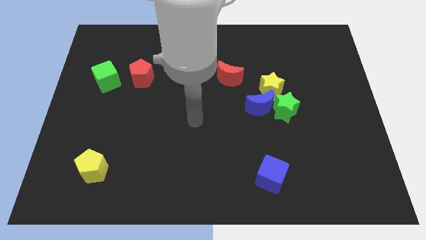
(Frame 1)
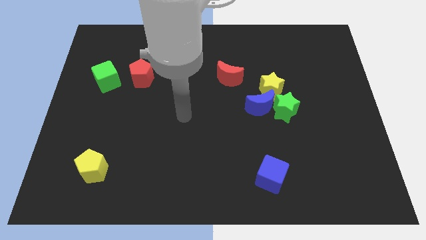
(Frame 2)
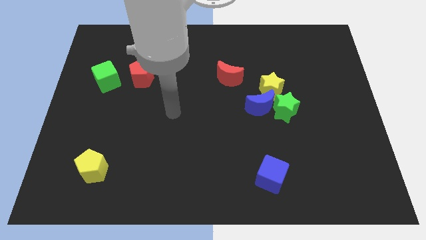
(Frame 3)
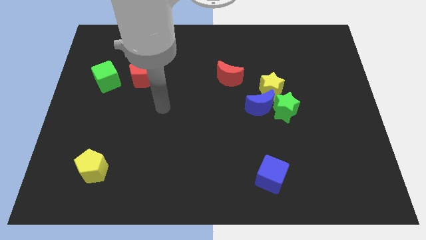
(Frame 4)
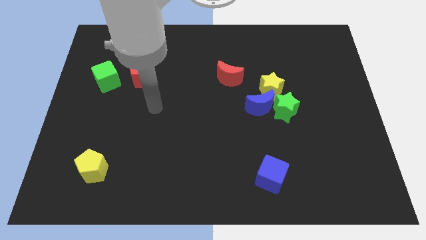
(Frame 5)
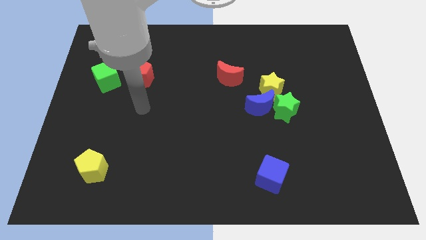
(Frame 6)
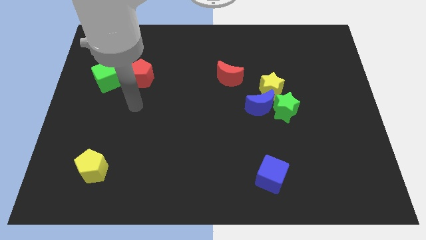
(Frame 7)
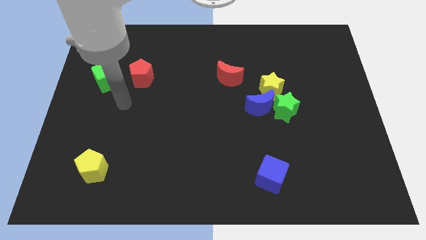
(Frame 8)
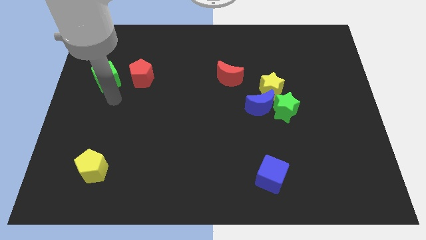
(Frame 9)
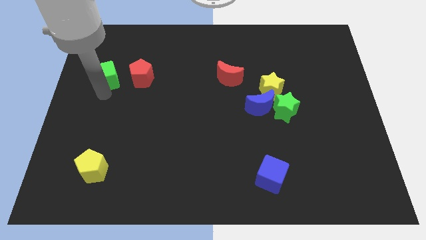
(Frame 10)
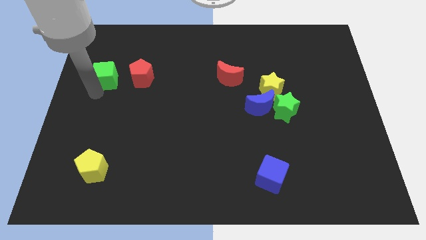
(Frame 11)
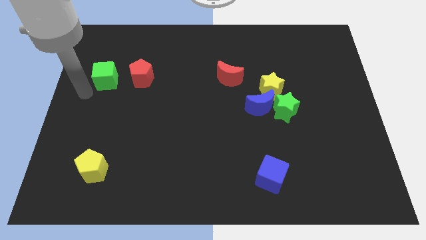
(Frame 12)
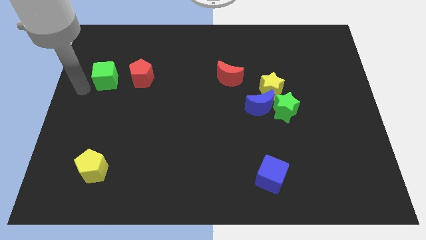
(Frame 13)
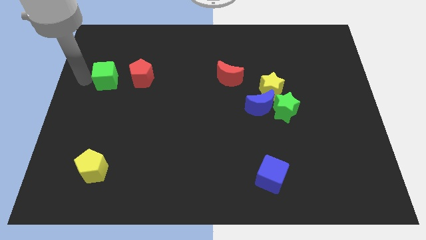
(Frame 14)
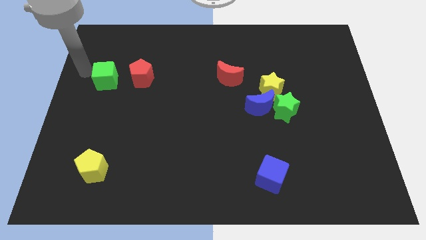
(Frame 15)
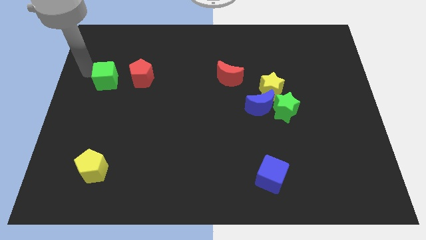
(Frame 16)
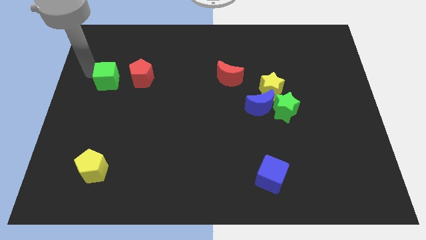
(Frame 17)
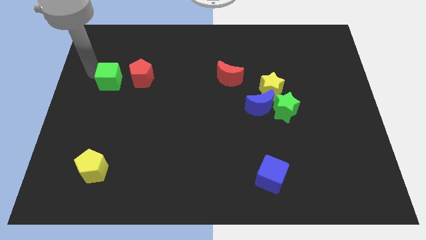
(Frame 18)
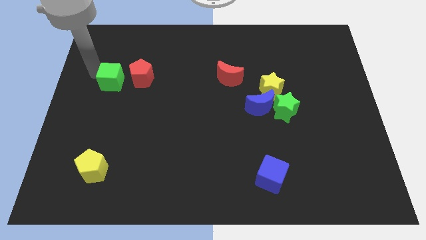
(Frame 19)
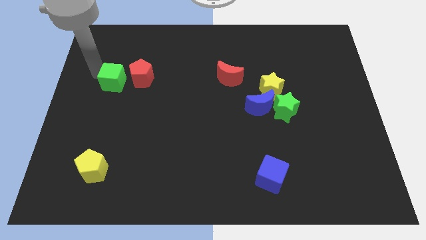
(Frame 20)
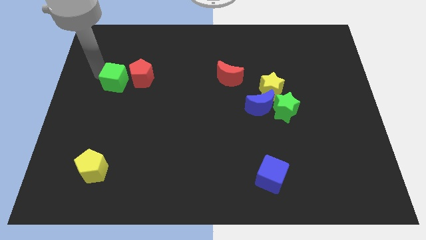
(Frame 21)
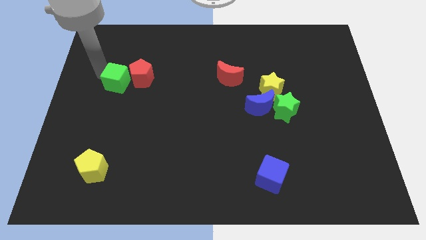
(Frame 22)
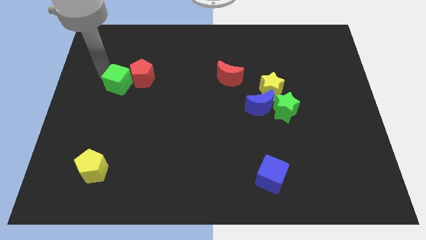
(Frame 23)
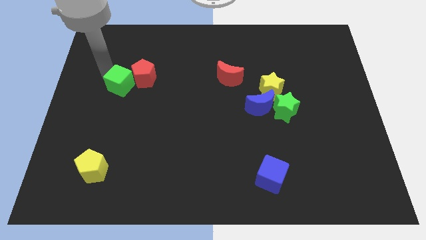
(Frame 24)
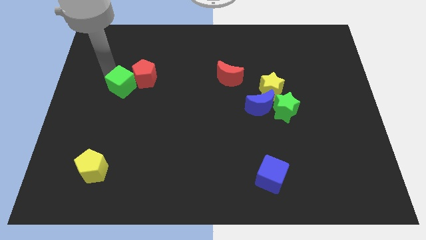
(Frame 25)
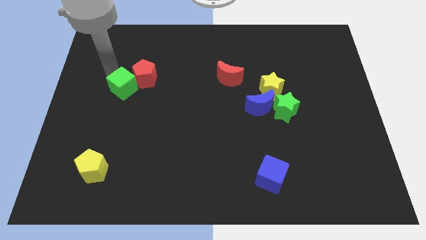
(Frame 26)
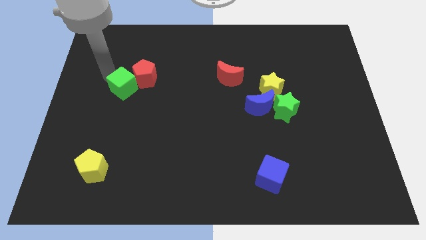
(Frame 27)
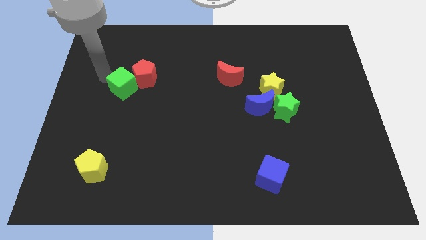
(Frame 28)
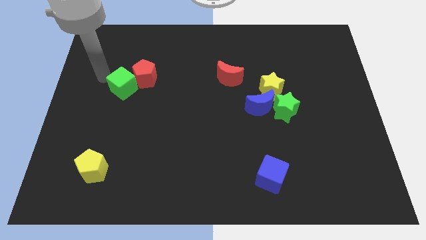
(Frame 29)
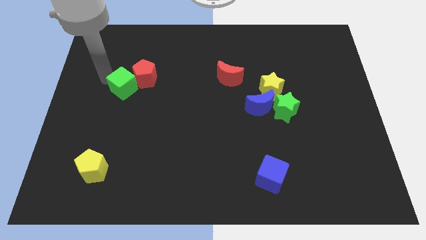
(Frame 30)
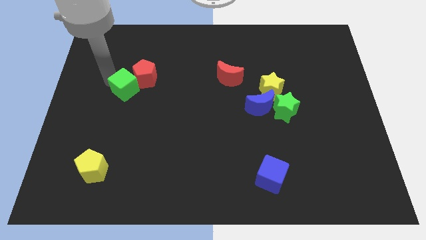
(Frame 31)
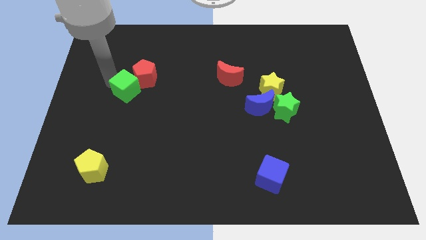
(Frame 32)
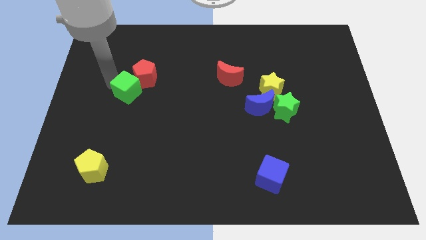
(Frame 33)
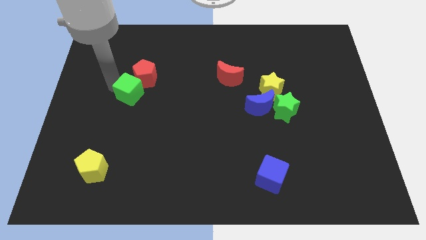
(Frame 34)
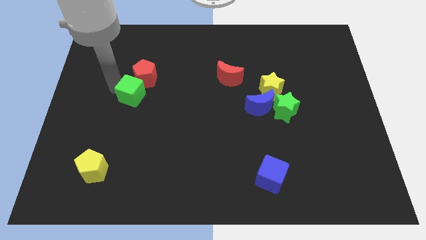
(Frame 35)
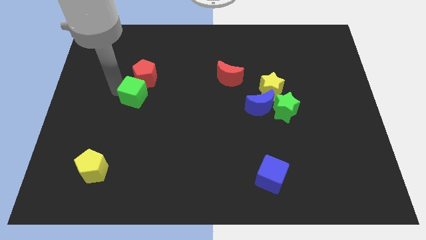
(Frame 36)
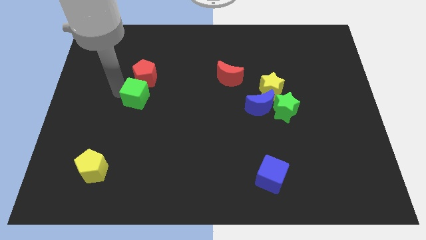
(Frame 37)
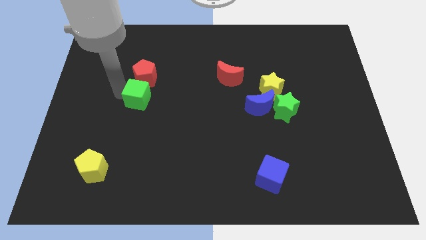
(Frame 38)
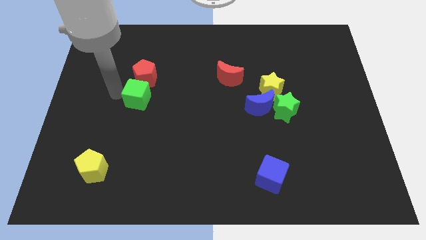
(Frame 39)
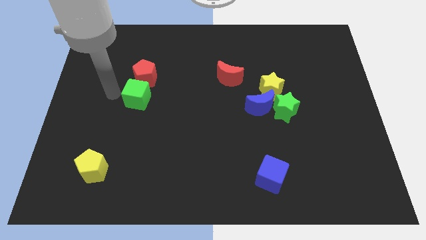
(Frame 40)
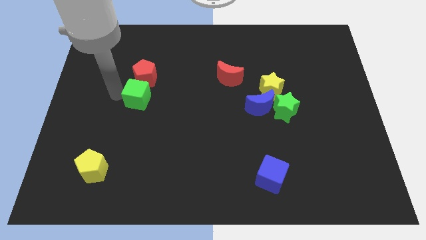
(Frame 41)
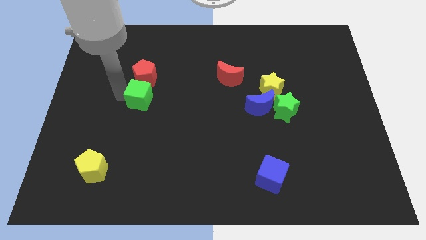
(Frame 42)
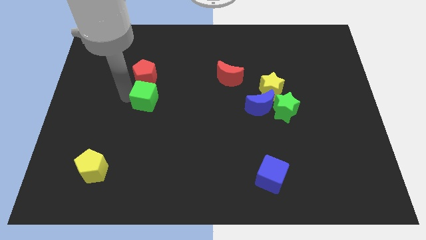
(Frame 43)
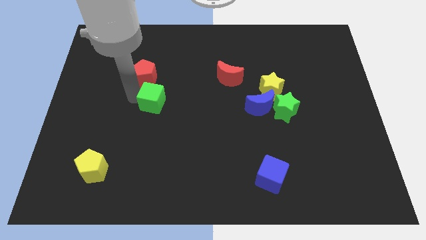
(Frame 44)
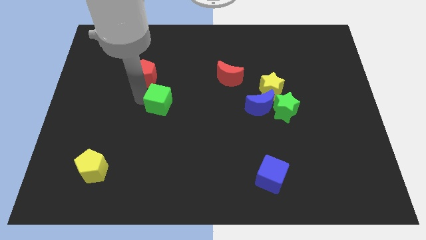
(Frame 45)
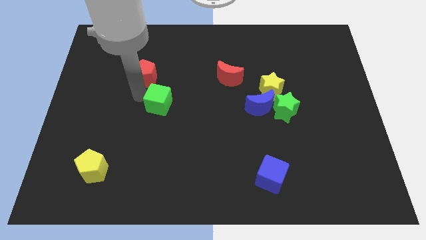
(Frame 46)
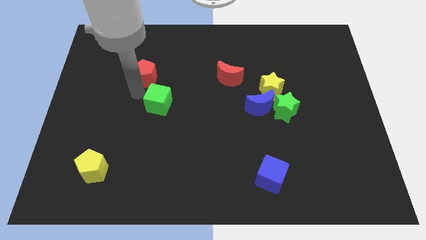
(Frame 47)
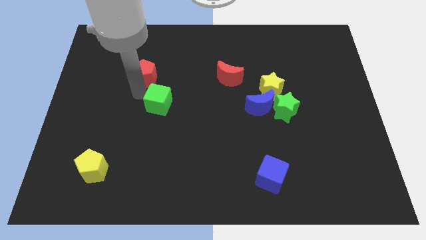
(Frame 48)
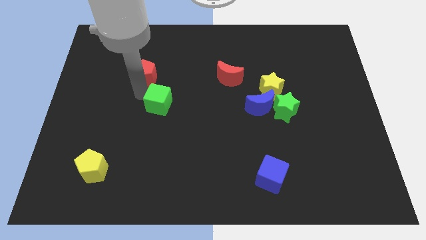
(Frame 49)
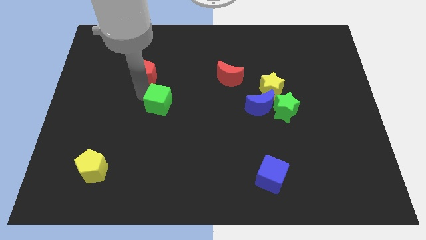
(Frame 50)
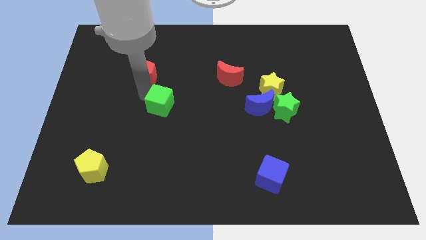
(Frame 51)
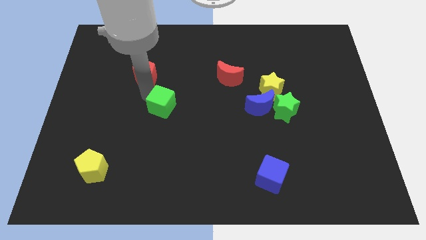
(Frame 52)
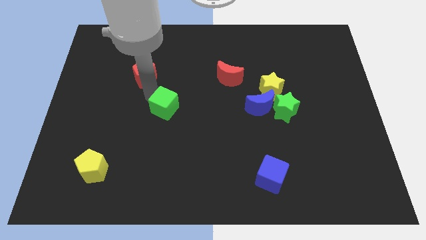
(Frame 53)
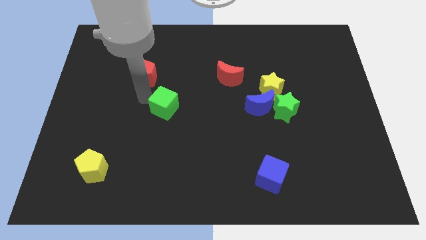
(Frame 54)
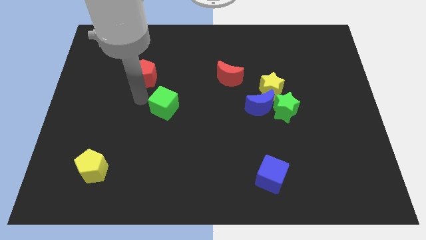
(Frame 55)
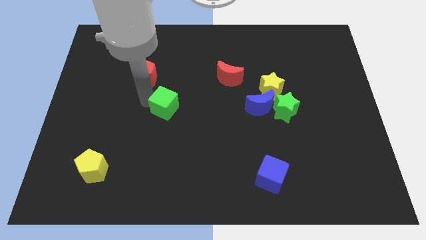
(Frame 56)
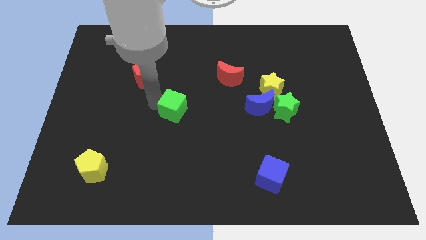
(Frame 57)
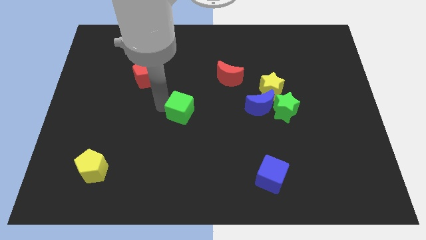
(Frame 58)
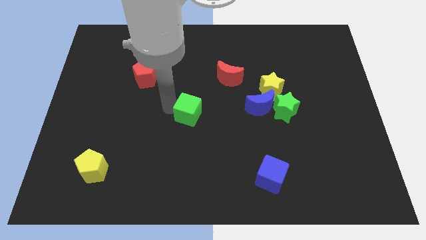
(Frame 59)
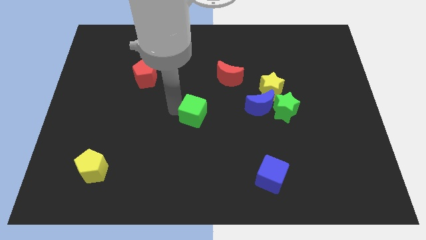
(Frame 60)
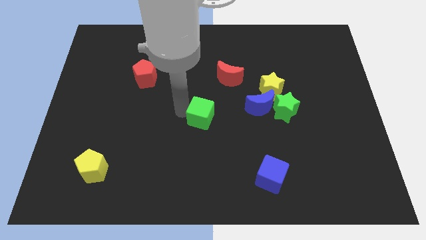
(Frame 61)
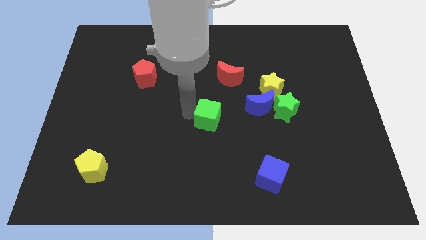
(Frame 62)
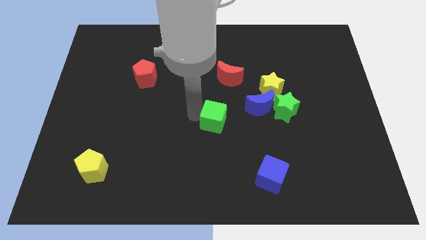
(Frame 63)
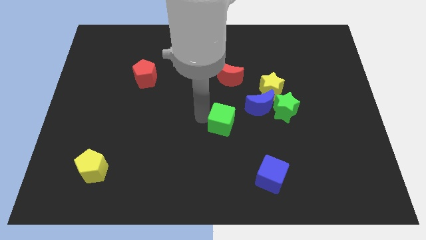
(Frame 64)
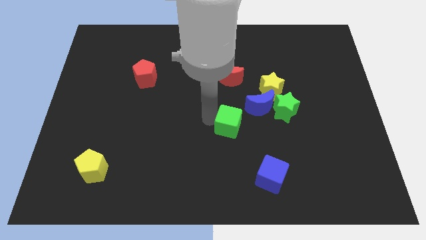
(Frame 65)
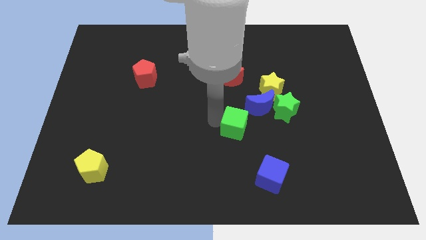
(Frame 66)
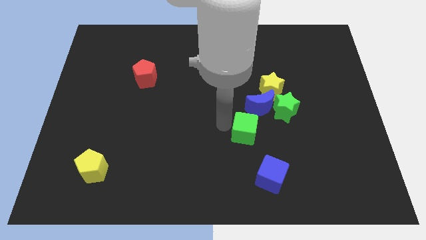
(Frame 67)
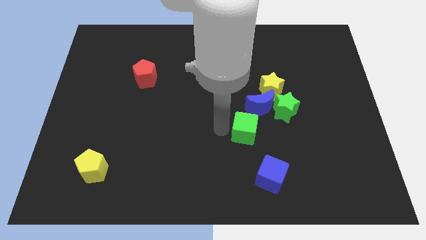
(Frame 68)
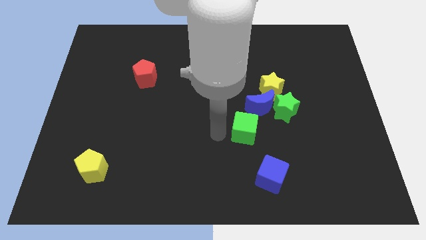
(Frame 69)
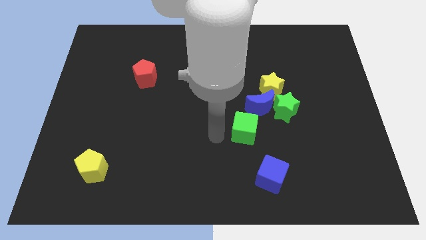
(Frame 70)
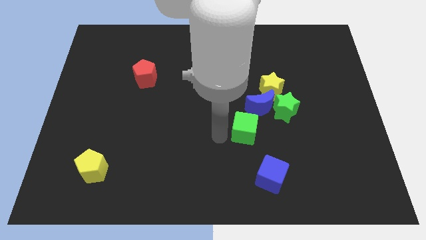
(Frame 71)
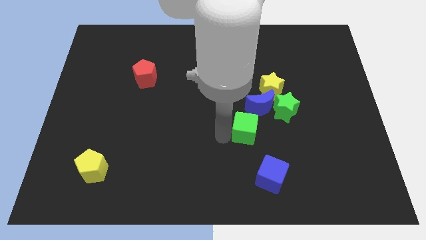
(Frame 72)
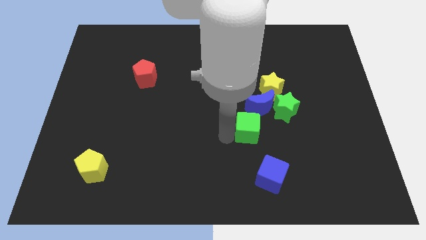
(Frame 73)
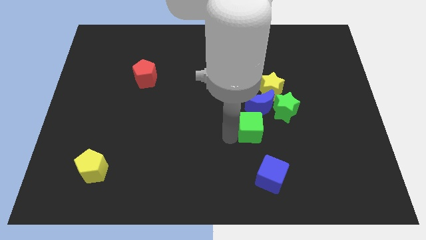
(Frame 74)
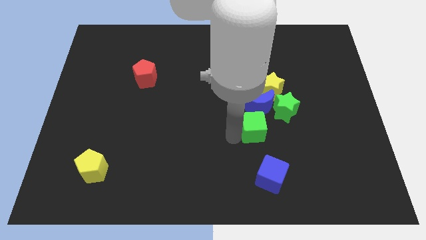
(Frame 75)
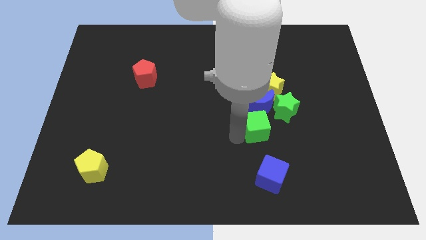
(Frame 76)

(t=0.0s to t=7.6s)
push the green cube to the bottom of the yellow star

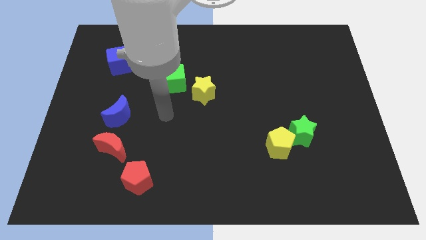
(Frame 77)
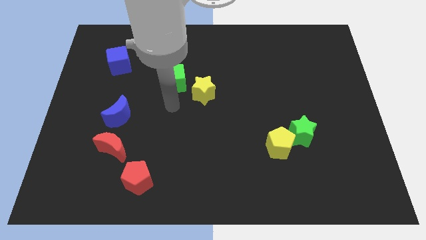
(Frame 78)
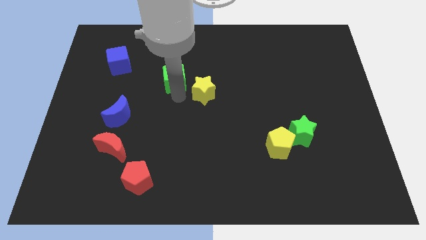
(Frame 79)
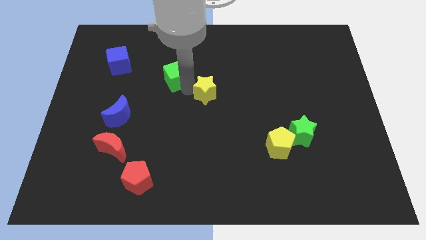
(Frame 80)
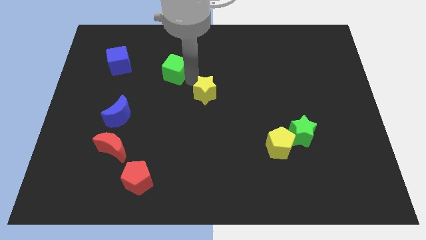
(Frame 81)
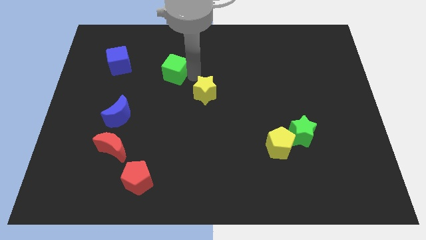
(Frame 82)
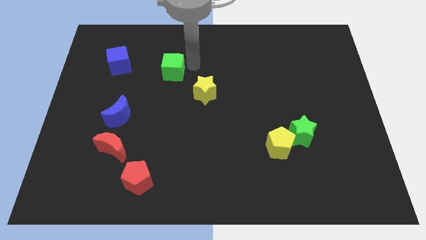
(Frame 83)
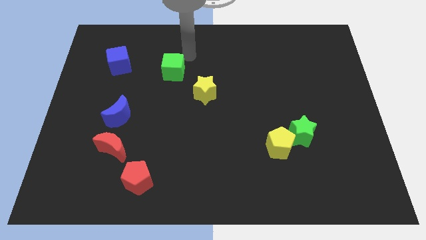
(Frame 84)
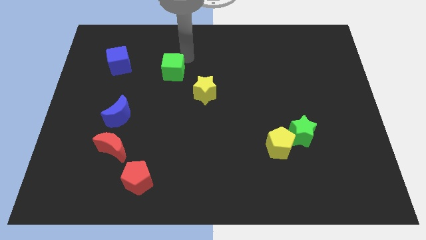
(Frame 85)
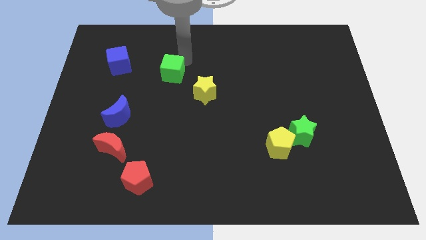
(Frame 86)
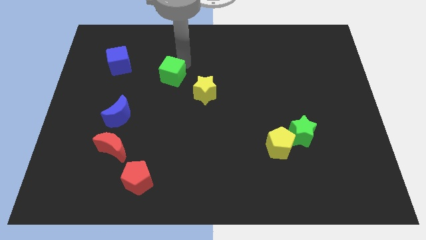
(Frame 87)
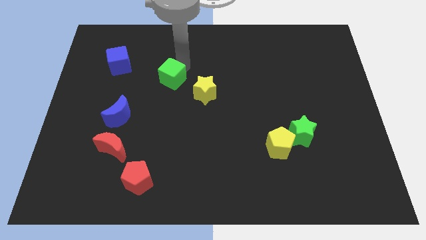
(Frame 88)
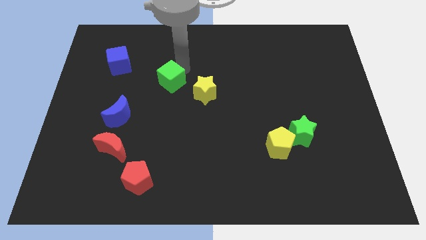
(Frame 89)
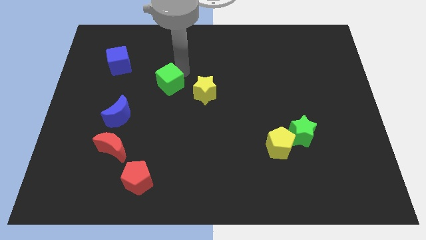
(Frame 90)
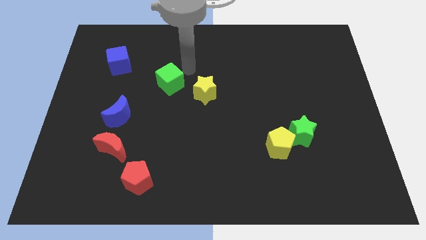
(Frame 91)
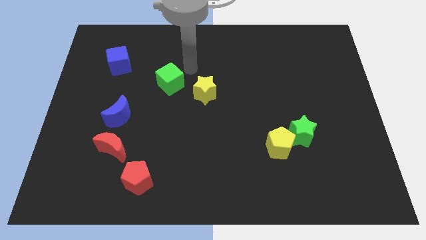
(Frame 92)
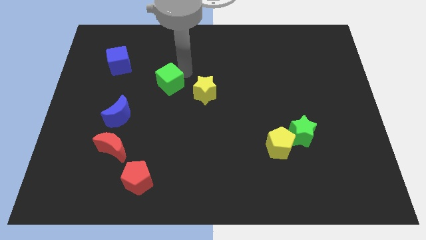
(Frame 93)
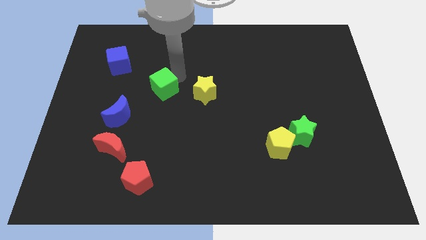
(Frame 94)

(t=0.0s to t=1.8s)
slide the green cube diagonally up and to the right of the blue moon
